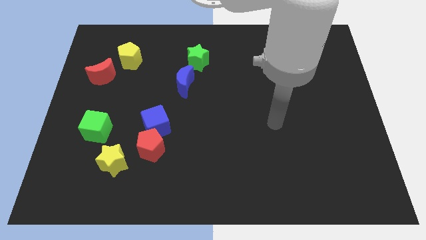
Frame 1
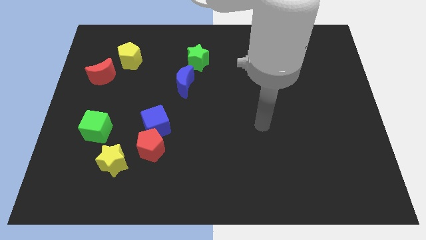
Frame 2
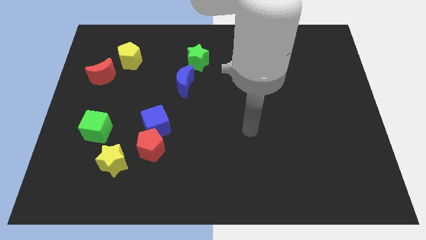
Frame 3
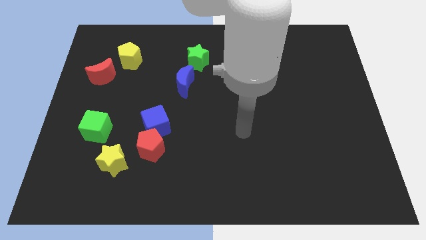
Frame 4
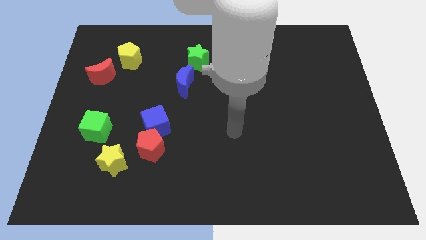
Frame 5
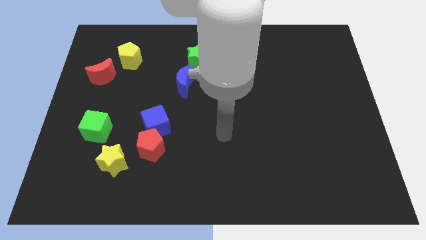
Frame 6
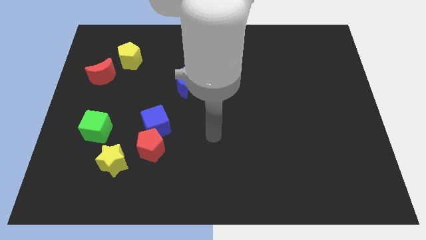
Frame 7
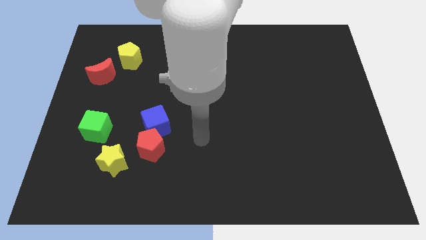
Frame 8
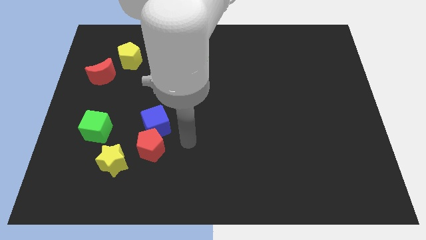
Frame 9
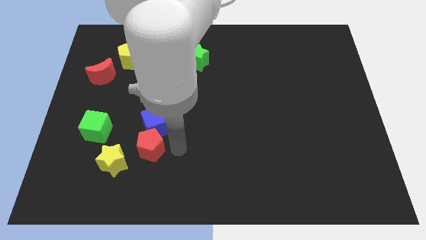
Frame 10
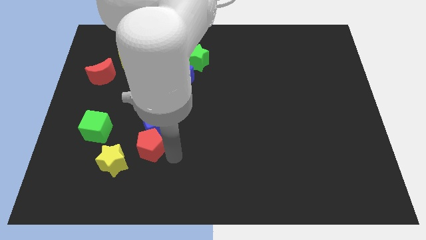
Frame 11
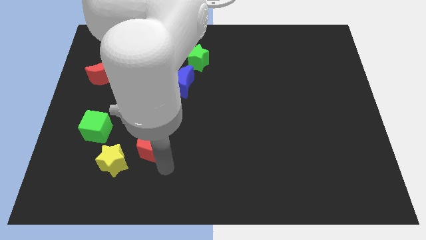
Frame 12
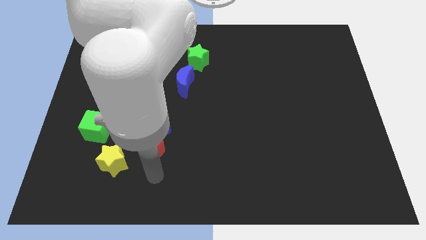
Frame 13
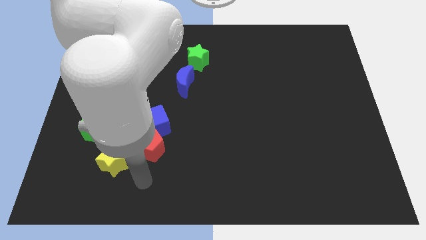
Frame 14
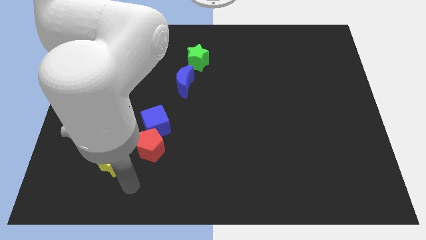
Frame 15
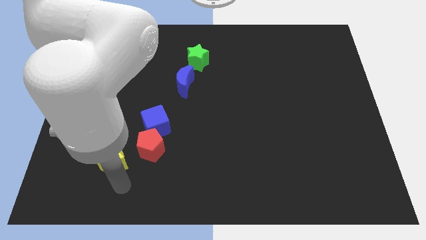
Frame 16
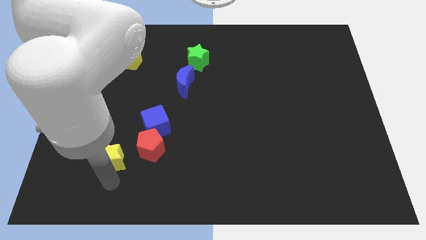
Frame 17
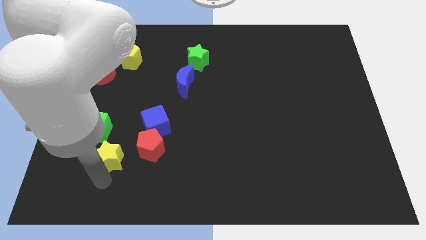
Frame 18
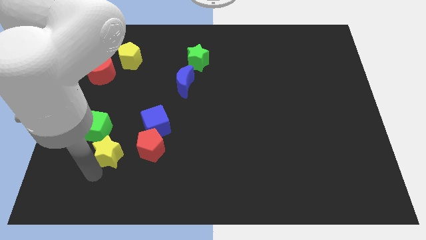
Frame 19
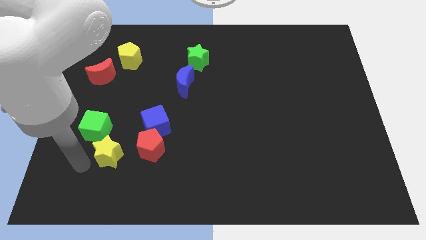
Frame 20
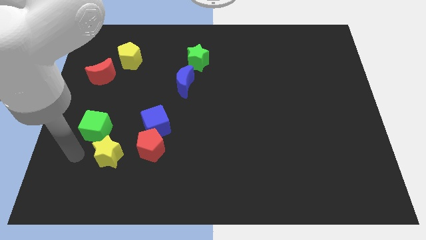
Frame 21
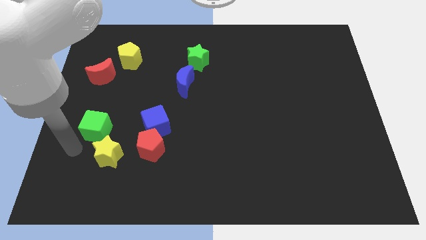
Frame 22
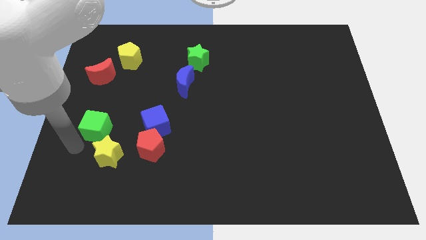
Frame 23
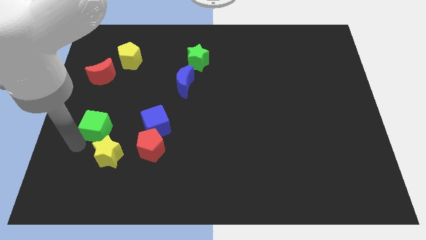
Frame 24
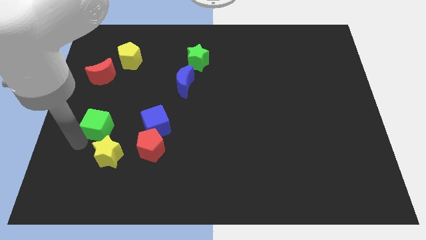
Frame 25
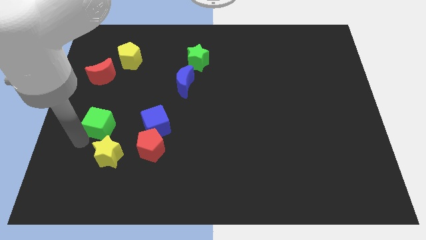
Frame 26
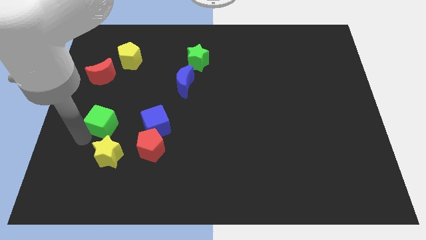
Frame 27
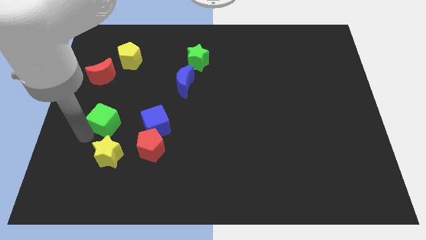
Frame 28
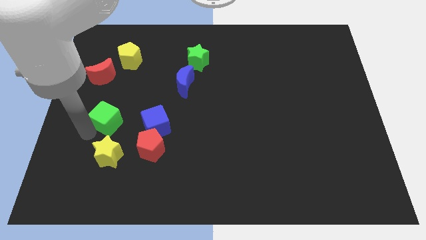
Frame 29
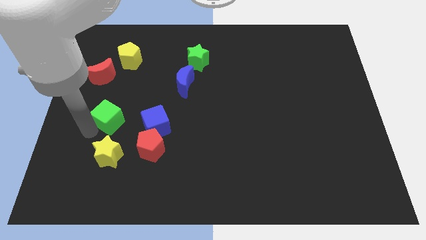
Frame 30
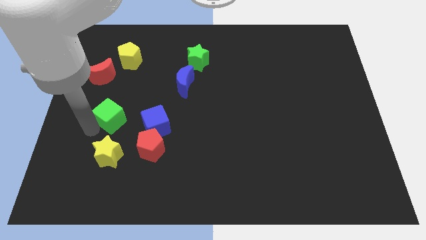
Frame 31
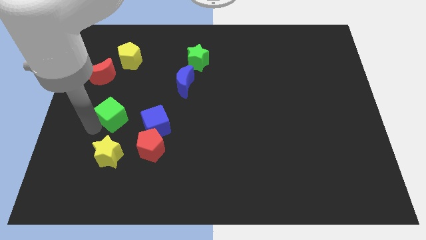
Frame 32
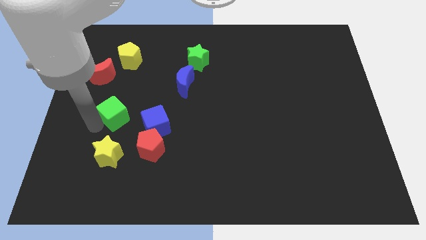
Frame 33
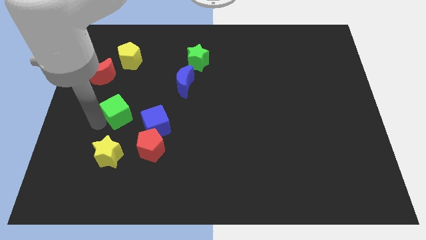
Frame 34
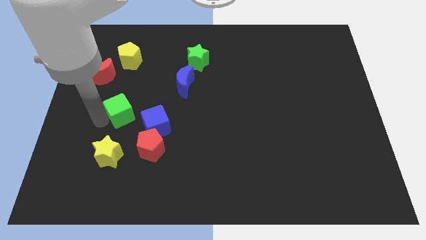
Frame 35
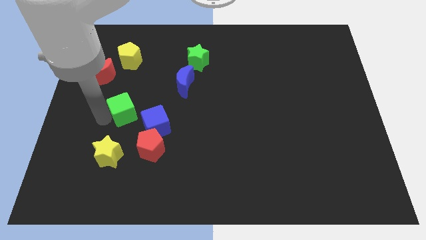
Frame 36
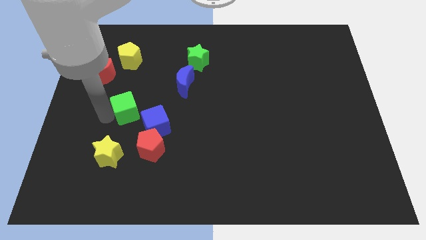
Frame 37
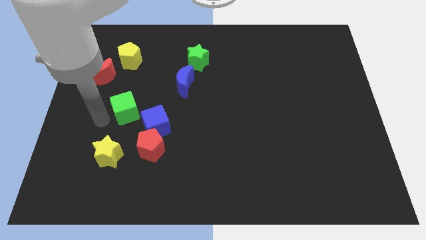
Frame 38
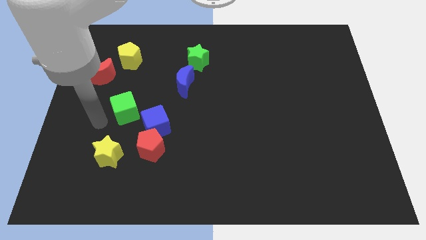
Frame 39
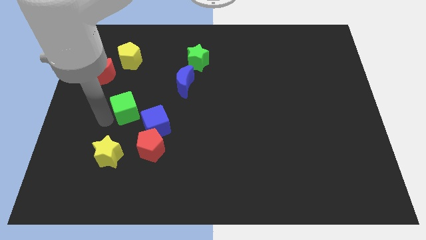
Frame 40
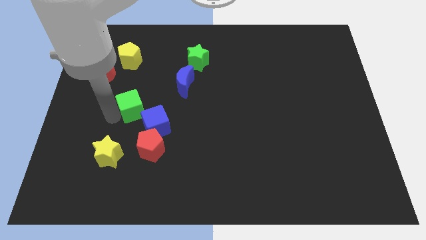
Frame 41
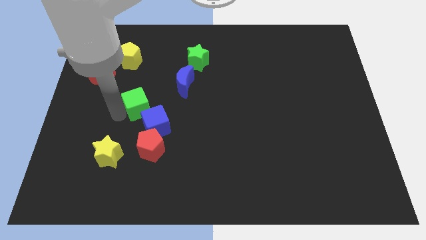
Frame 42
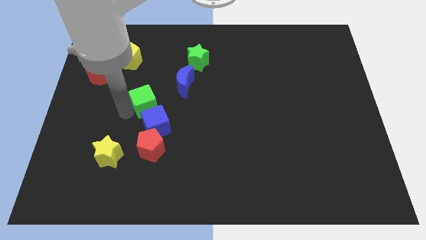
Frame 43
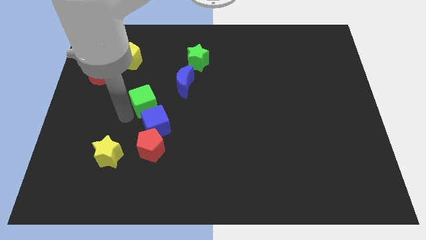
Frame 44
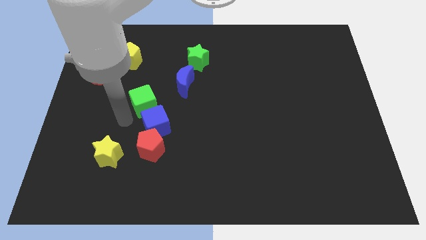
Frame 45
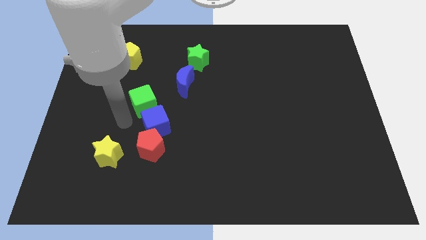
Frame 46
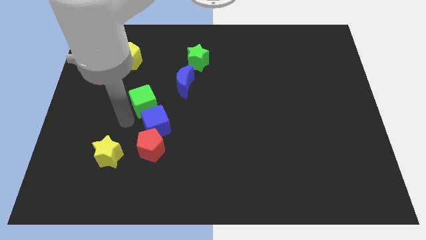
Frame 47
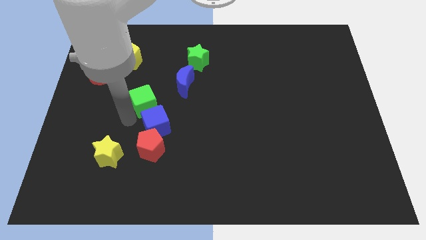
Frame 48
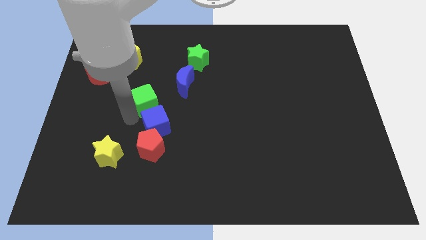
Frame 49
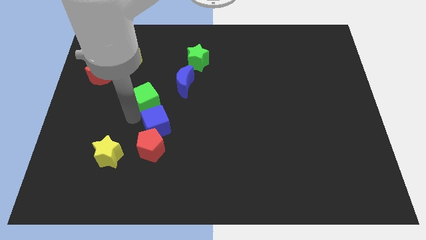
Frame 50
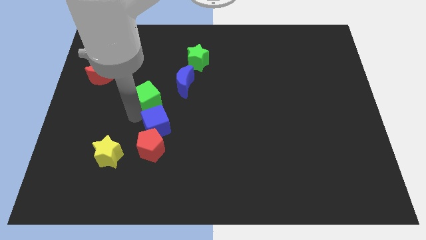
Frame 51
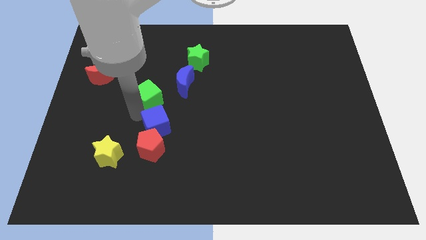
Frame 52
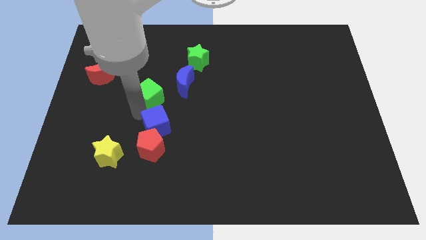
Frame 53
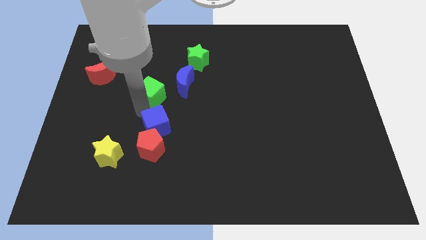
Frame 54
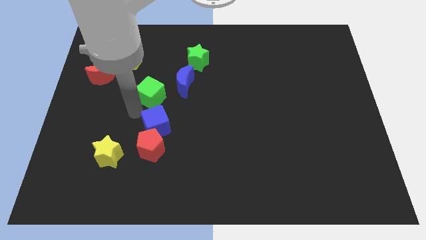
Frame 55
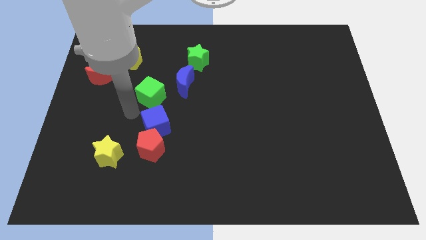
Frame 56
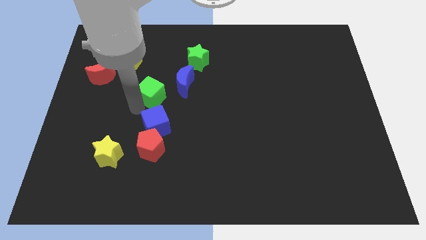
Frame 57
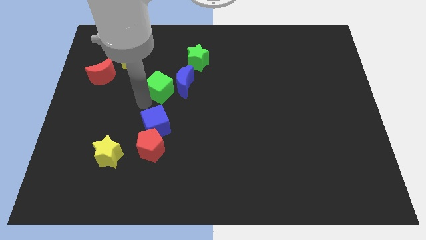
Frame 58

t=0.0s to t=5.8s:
put the green cube to the bottom left side of the green star

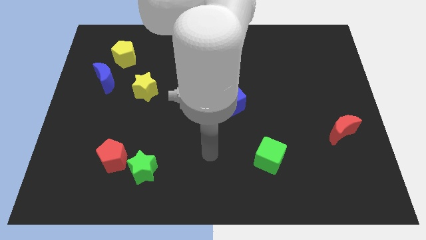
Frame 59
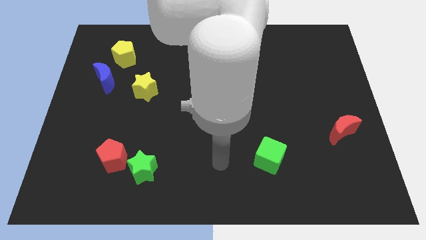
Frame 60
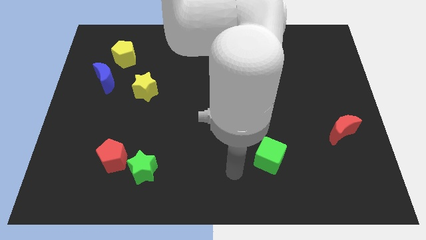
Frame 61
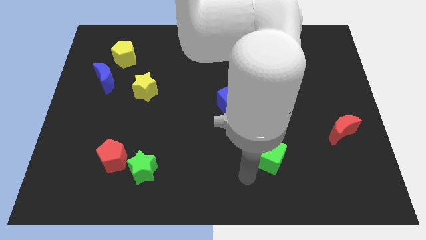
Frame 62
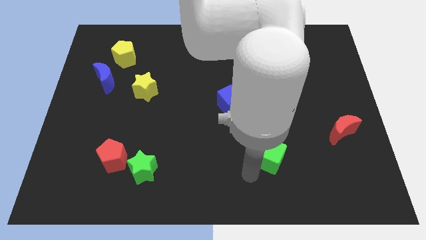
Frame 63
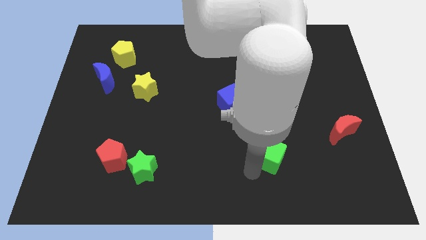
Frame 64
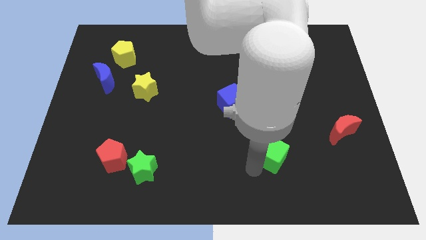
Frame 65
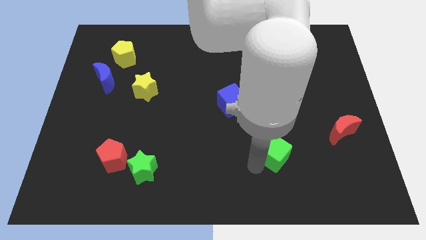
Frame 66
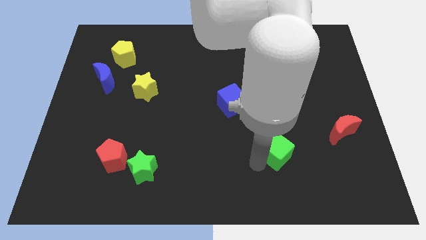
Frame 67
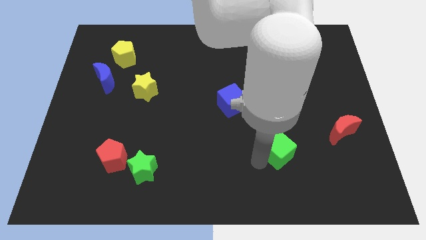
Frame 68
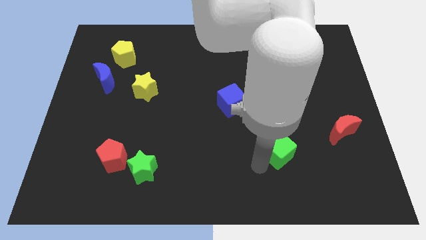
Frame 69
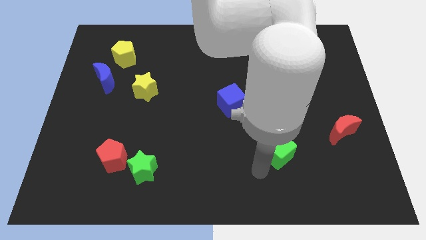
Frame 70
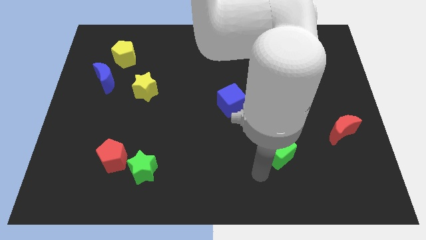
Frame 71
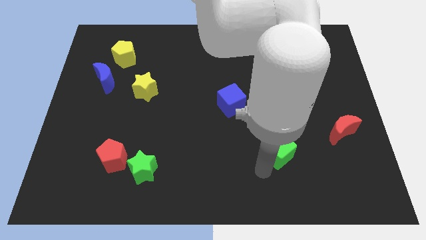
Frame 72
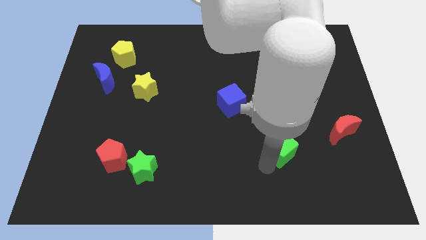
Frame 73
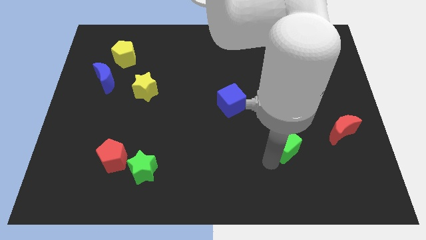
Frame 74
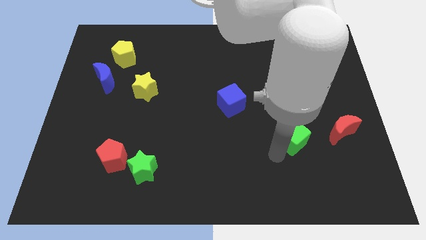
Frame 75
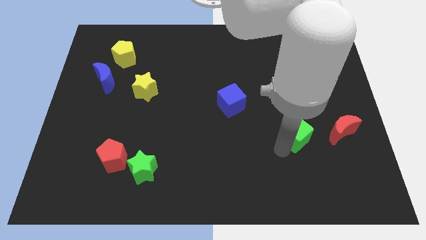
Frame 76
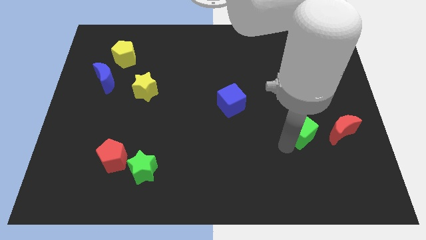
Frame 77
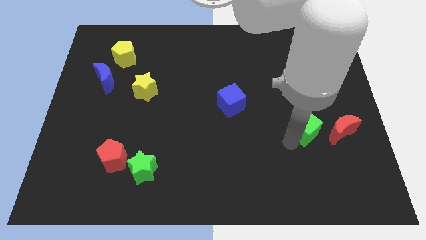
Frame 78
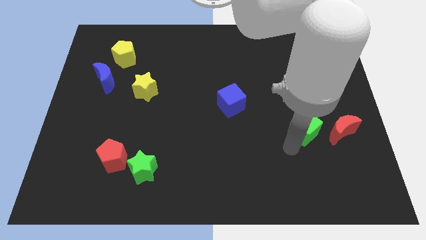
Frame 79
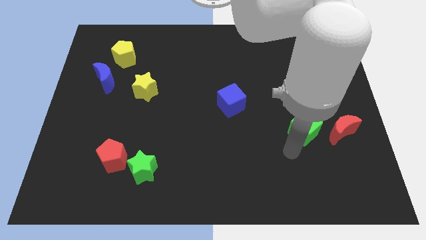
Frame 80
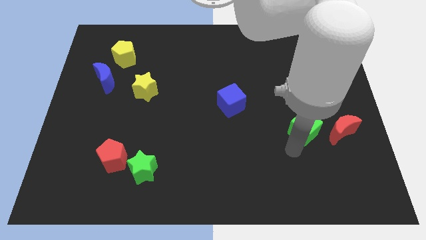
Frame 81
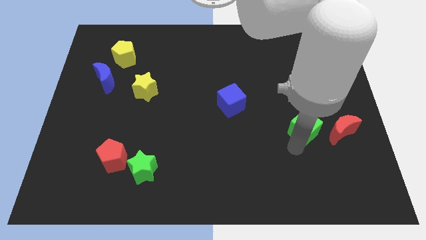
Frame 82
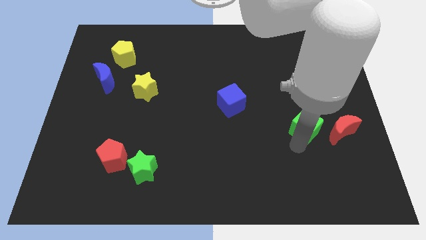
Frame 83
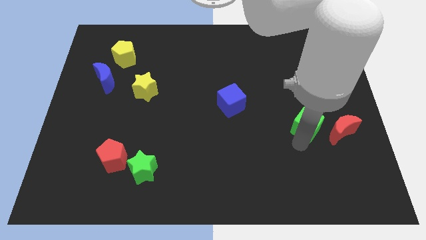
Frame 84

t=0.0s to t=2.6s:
move the green cube to the top left side of the red moon
